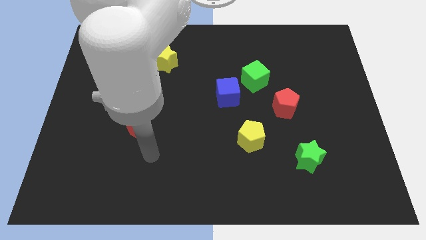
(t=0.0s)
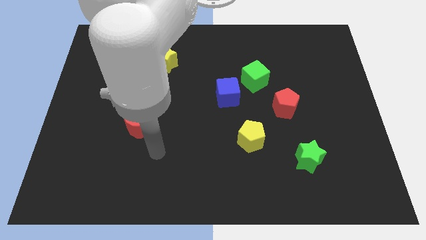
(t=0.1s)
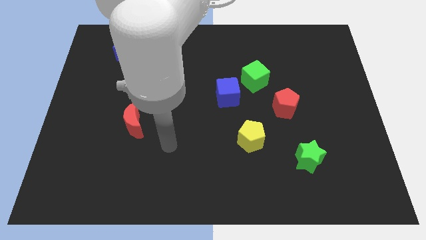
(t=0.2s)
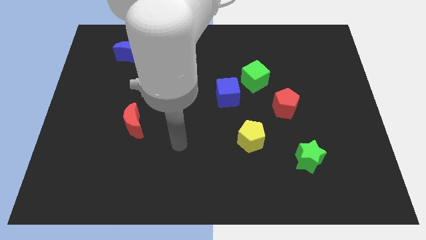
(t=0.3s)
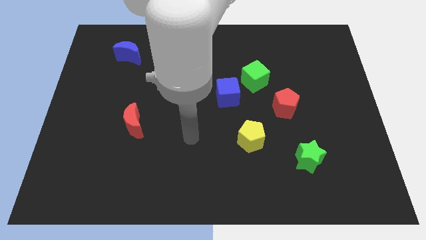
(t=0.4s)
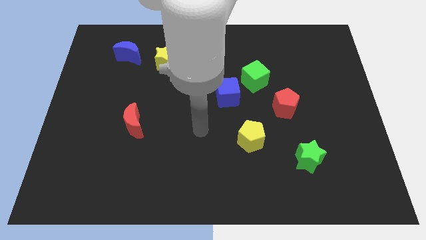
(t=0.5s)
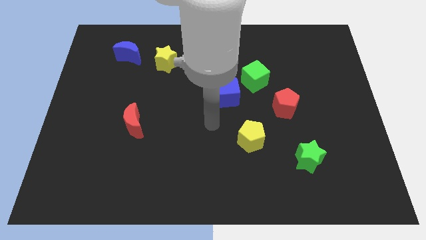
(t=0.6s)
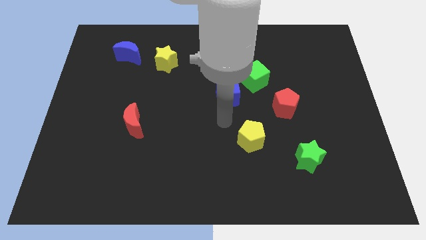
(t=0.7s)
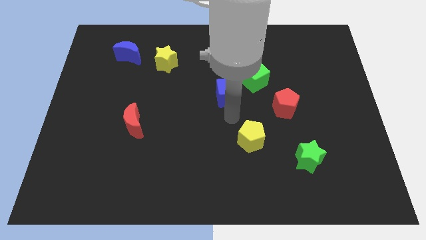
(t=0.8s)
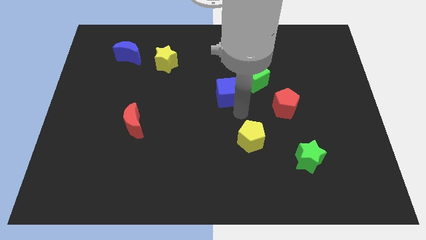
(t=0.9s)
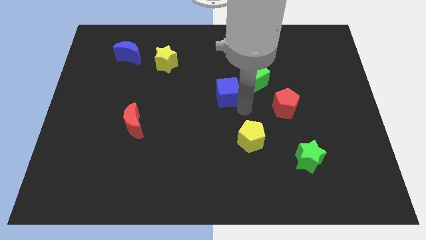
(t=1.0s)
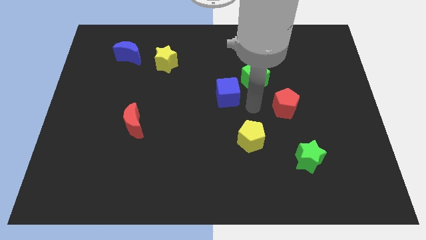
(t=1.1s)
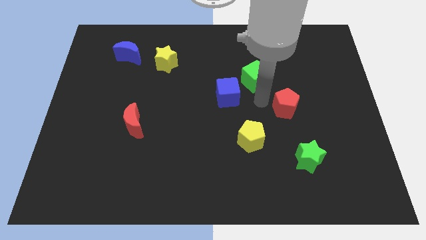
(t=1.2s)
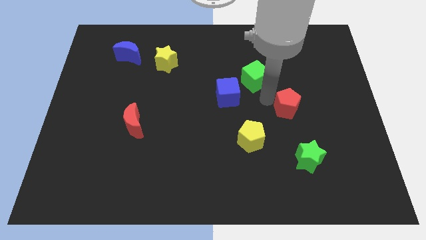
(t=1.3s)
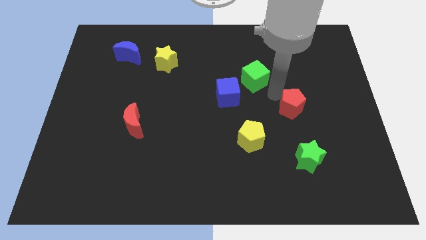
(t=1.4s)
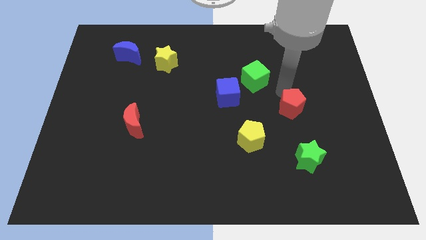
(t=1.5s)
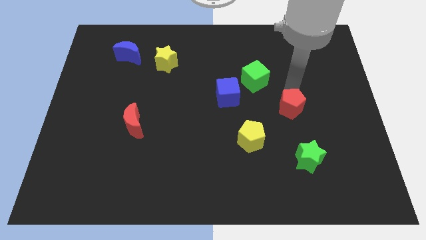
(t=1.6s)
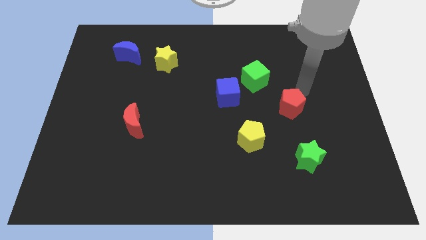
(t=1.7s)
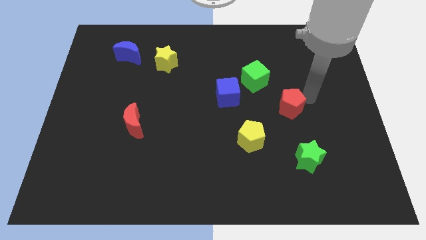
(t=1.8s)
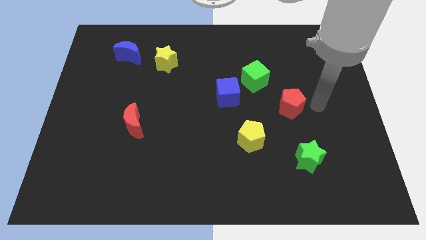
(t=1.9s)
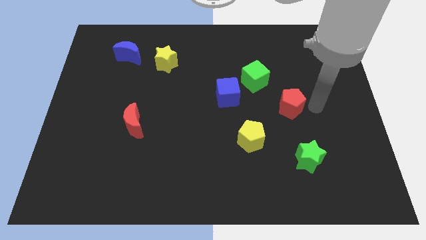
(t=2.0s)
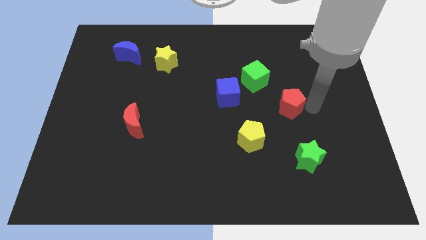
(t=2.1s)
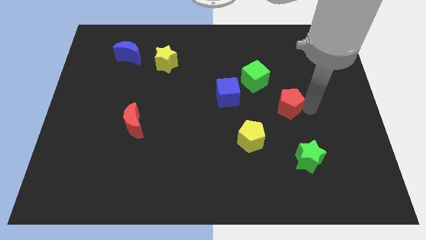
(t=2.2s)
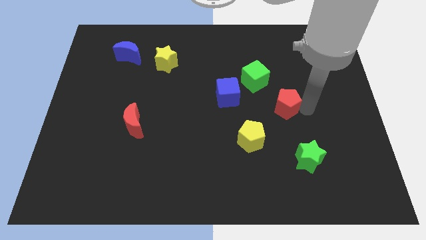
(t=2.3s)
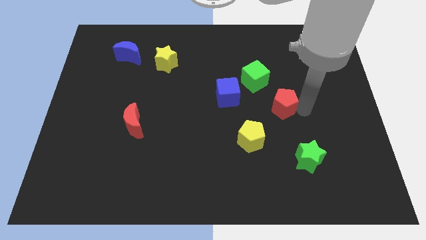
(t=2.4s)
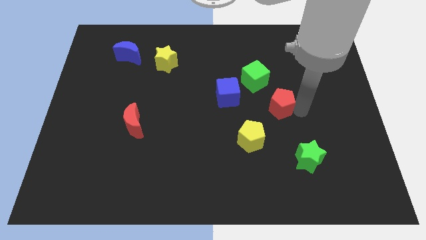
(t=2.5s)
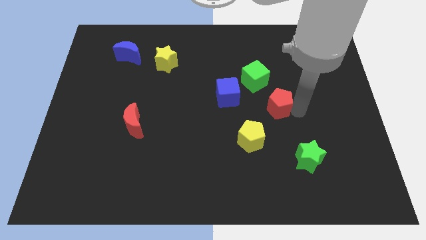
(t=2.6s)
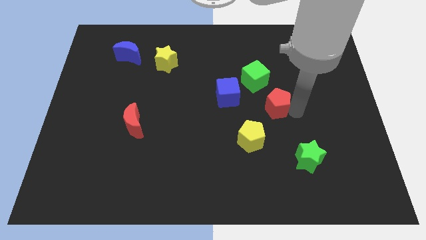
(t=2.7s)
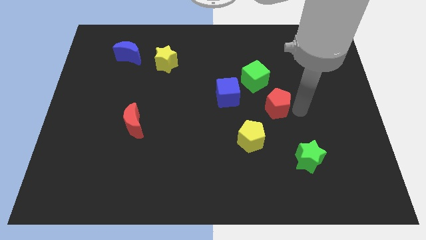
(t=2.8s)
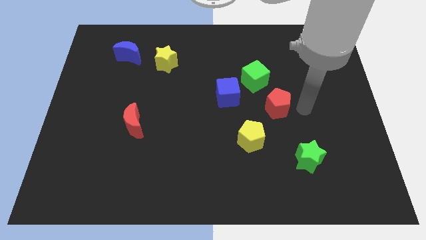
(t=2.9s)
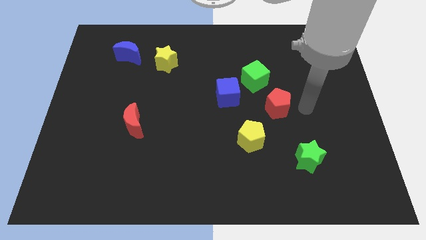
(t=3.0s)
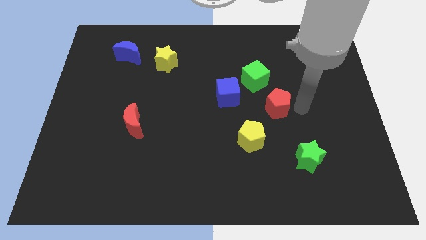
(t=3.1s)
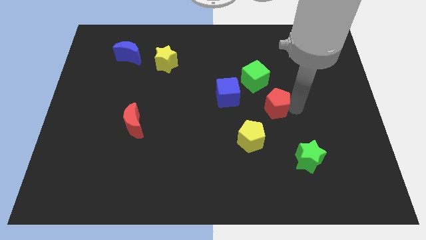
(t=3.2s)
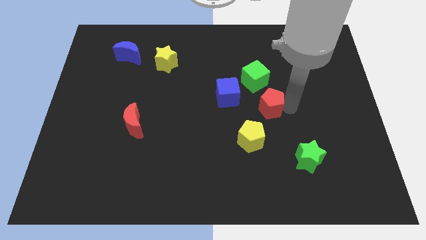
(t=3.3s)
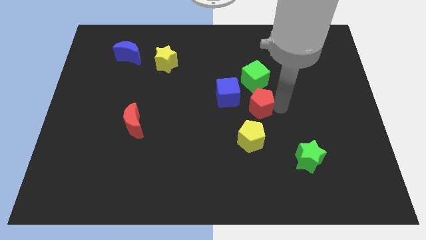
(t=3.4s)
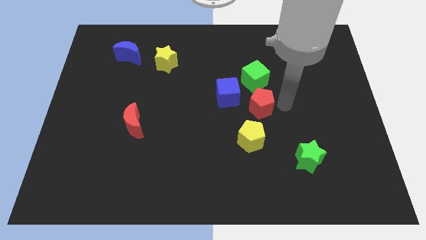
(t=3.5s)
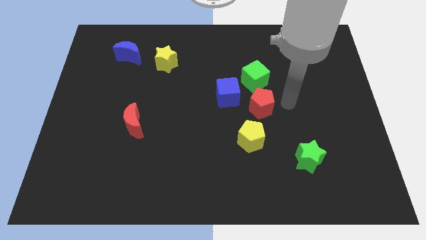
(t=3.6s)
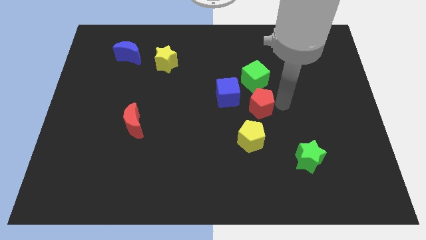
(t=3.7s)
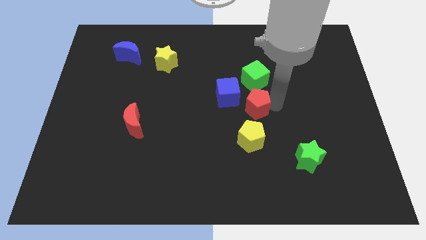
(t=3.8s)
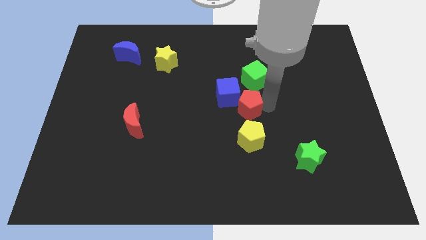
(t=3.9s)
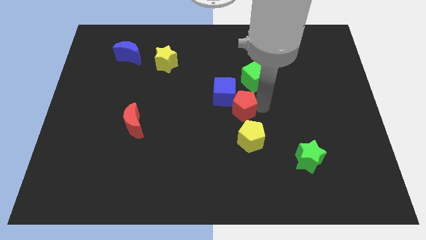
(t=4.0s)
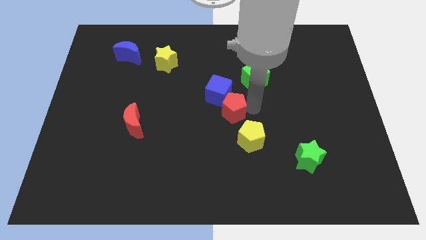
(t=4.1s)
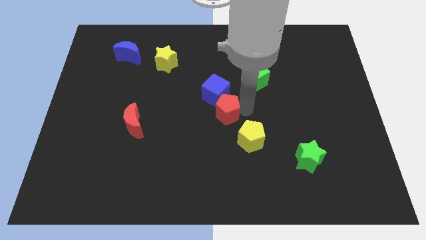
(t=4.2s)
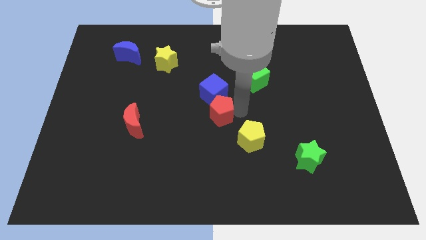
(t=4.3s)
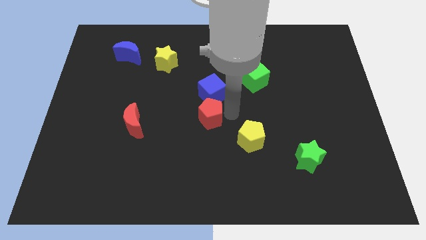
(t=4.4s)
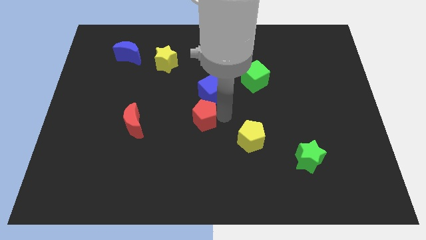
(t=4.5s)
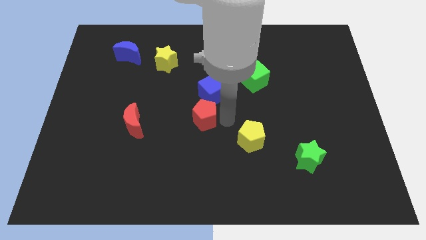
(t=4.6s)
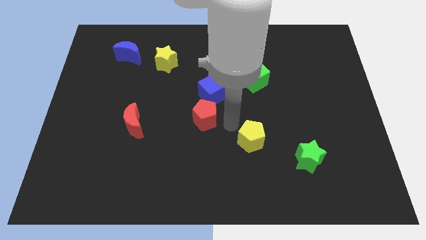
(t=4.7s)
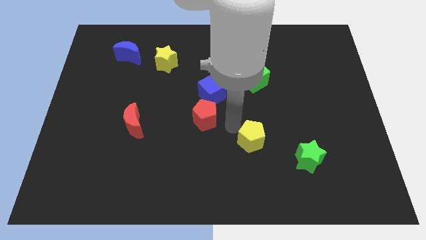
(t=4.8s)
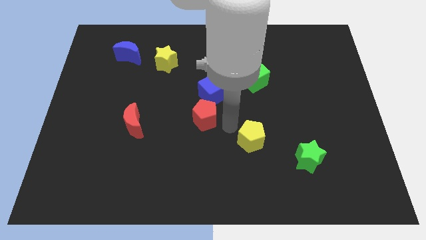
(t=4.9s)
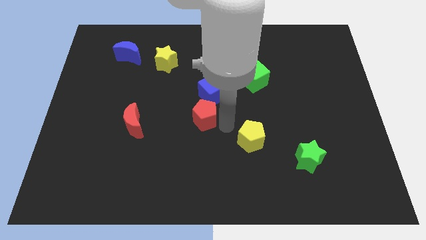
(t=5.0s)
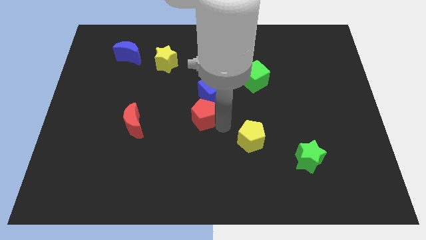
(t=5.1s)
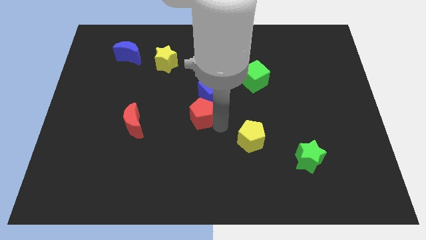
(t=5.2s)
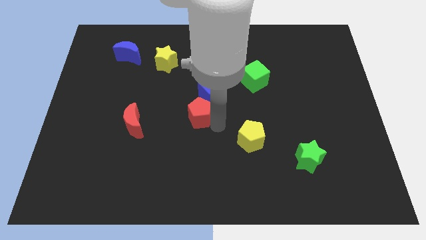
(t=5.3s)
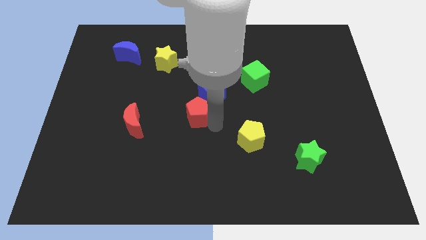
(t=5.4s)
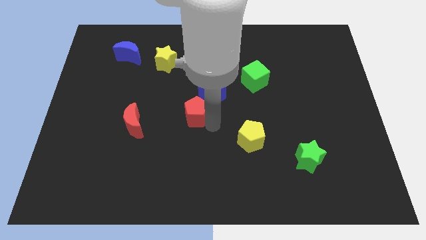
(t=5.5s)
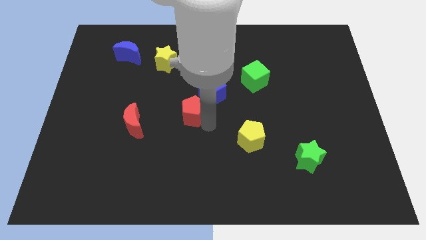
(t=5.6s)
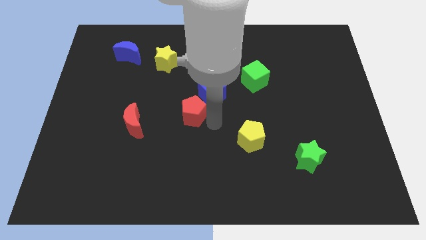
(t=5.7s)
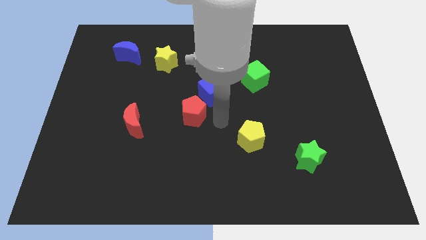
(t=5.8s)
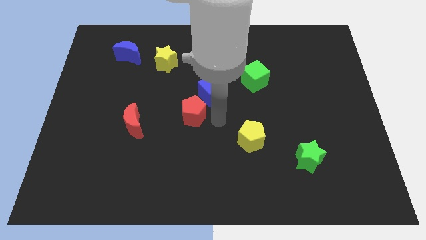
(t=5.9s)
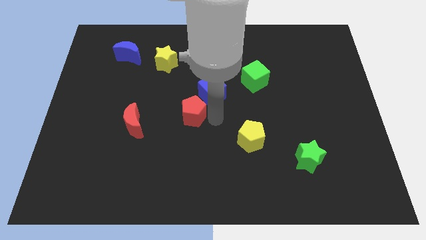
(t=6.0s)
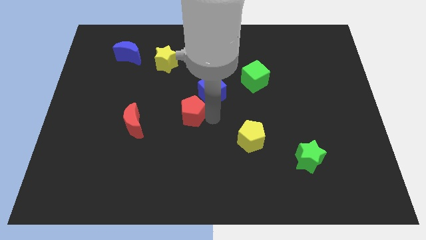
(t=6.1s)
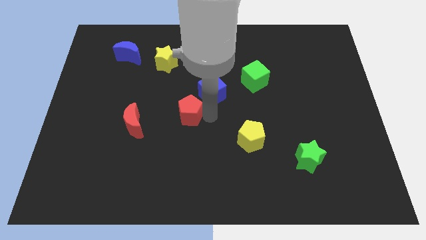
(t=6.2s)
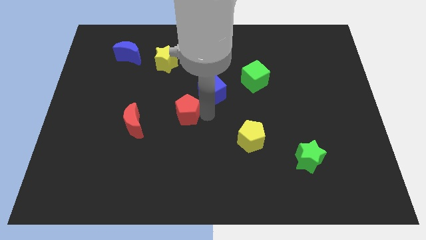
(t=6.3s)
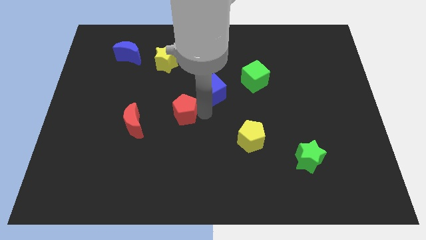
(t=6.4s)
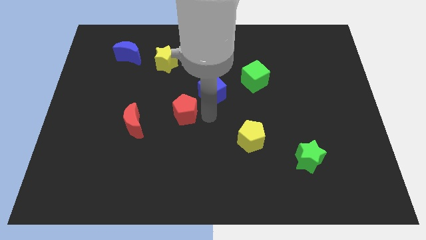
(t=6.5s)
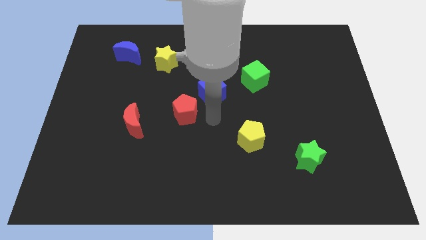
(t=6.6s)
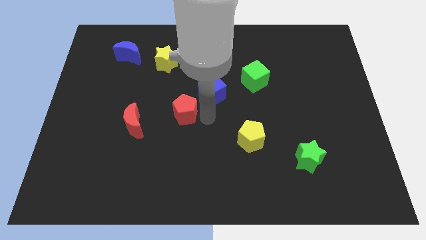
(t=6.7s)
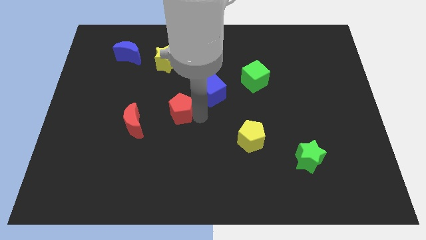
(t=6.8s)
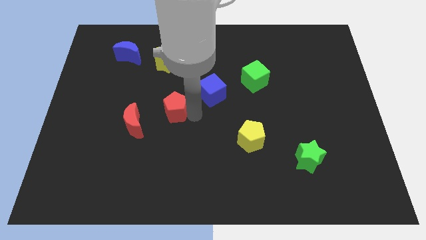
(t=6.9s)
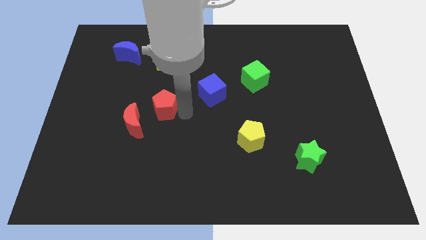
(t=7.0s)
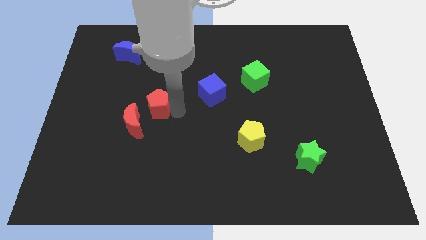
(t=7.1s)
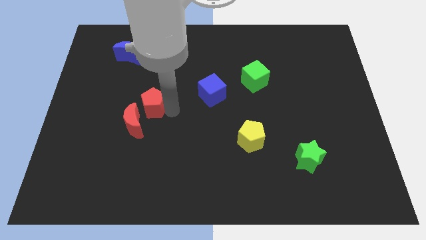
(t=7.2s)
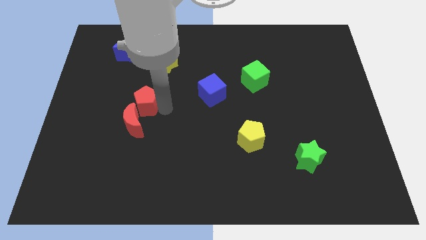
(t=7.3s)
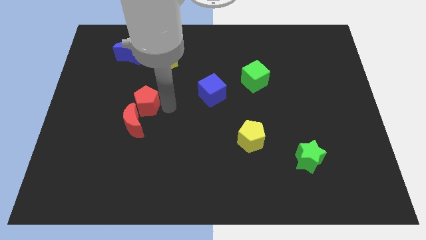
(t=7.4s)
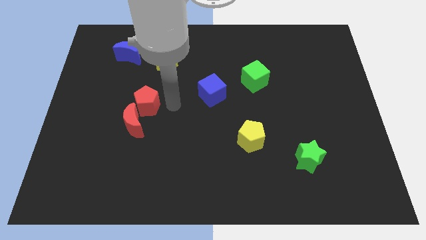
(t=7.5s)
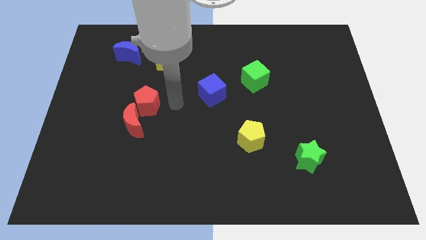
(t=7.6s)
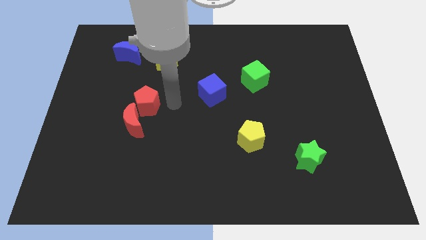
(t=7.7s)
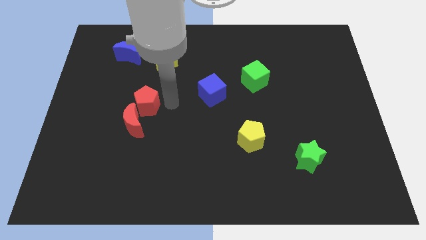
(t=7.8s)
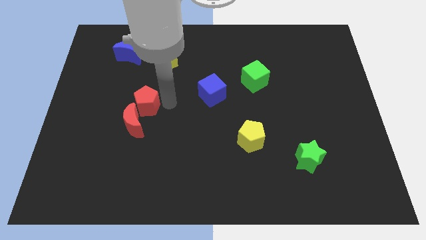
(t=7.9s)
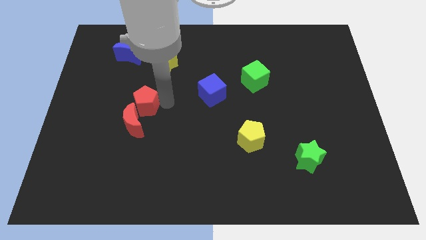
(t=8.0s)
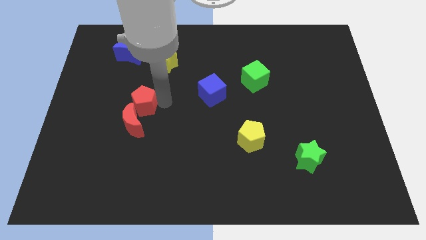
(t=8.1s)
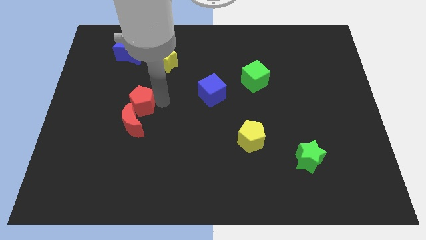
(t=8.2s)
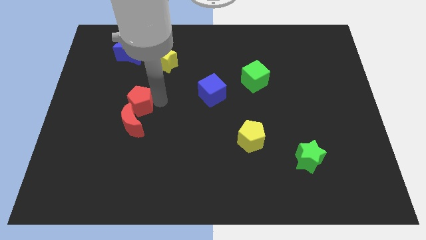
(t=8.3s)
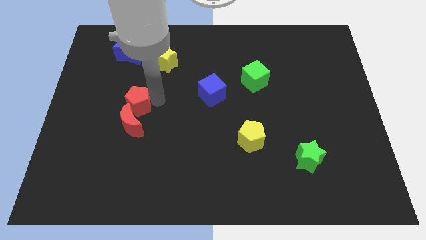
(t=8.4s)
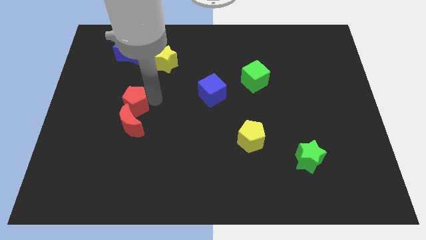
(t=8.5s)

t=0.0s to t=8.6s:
push the red pentagon to the top left of the red moon
